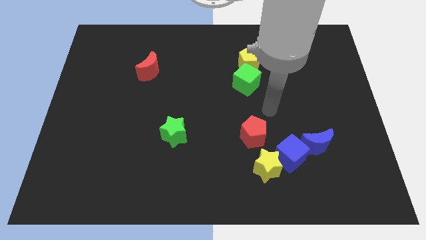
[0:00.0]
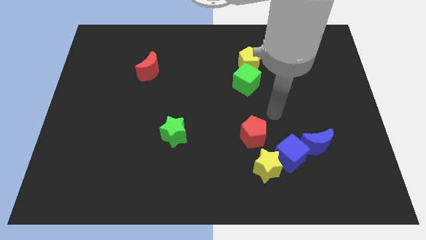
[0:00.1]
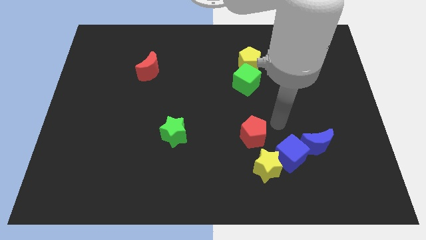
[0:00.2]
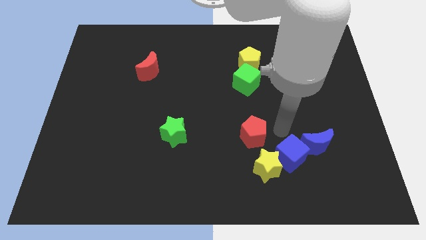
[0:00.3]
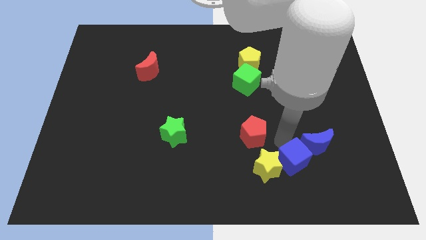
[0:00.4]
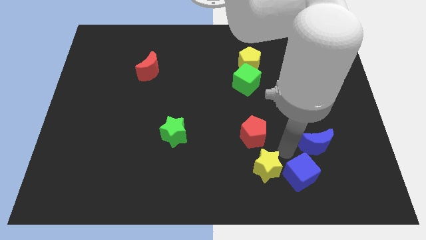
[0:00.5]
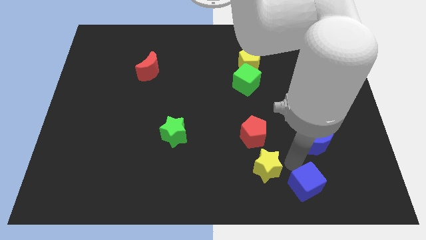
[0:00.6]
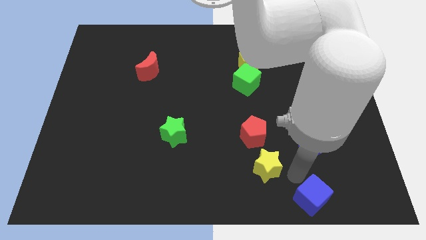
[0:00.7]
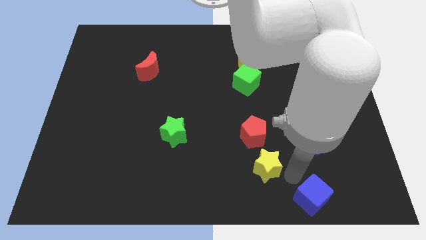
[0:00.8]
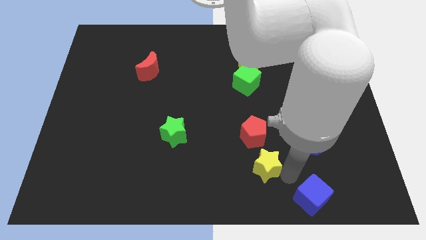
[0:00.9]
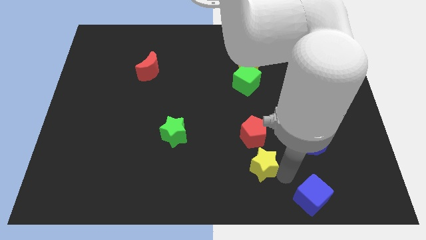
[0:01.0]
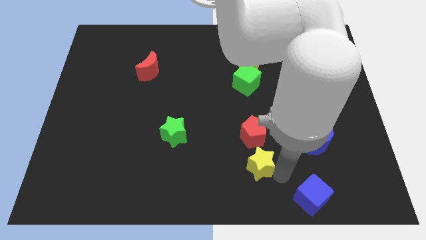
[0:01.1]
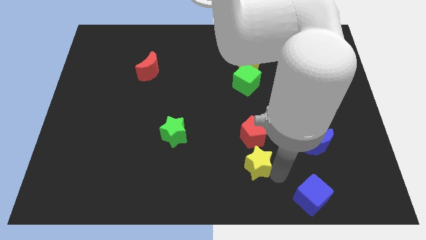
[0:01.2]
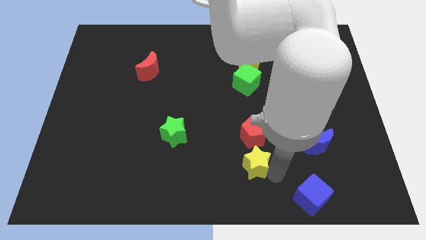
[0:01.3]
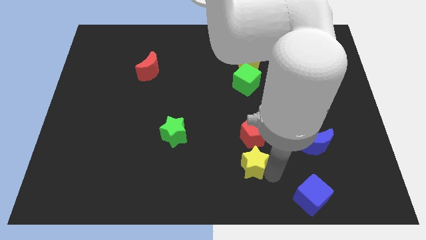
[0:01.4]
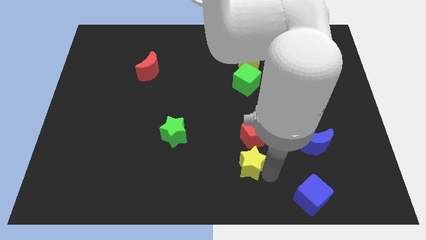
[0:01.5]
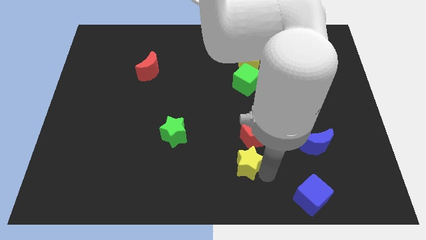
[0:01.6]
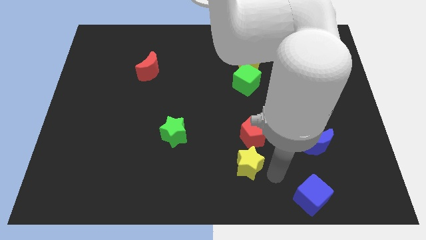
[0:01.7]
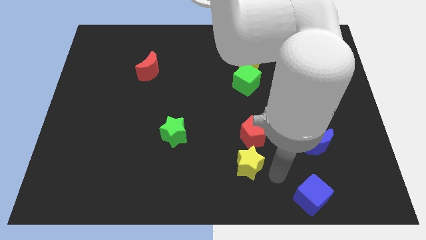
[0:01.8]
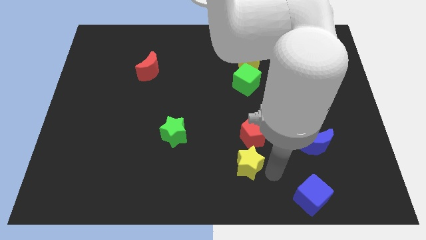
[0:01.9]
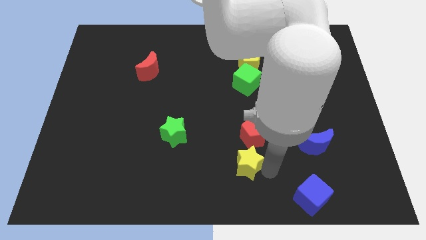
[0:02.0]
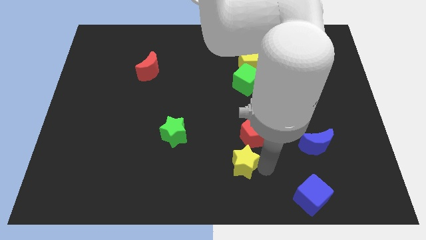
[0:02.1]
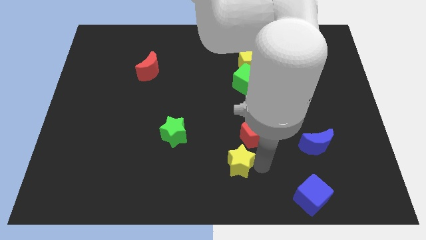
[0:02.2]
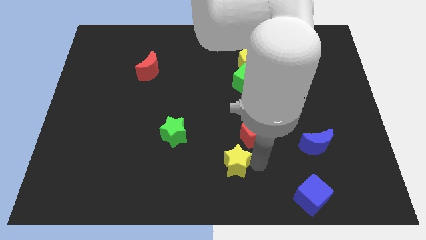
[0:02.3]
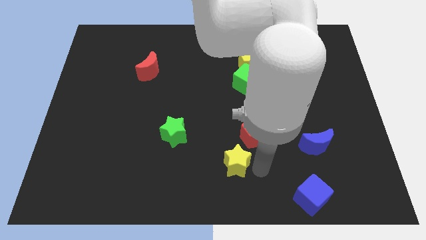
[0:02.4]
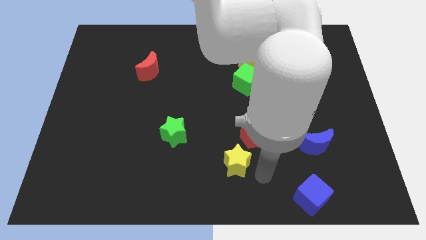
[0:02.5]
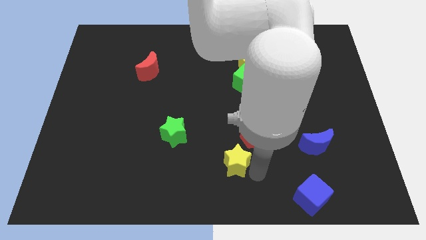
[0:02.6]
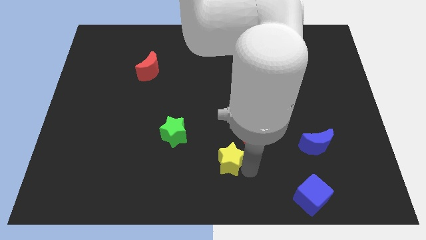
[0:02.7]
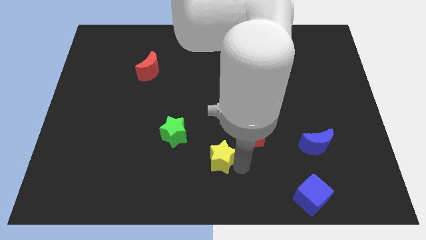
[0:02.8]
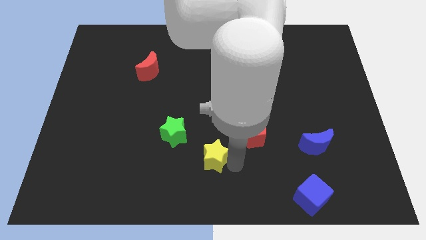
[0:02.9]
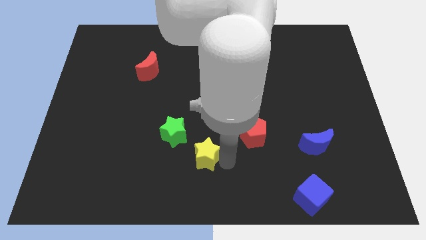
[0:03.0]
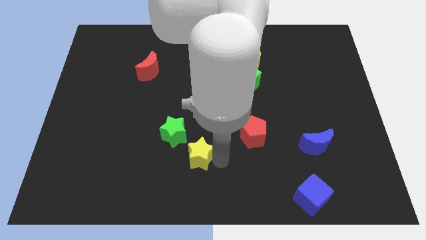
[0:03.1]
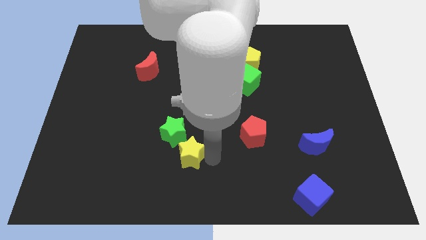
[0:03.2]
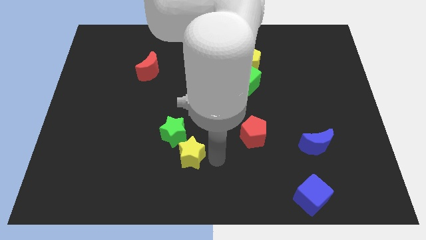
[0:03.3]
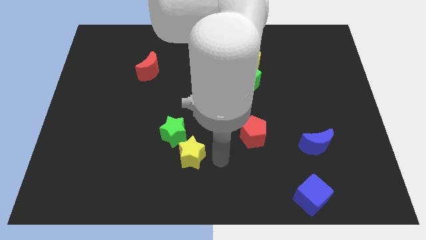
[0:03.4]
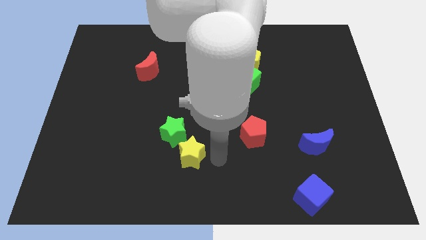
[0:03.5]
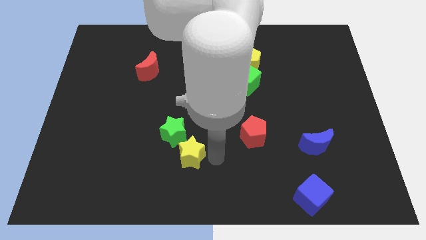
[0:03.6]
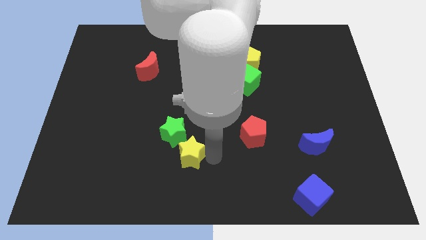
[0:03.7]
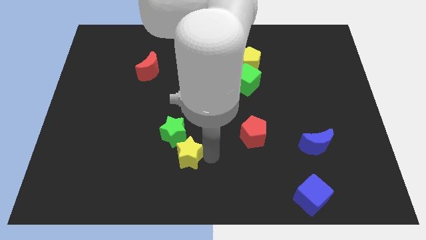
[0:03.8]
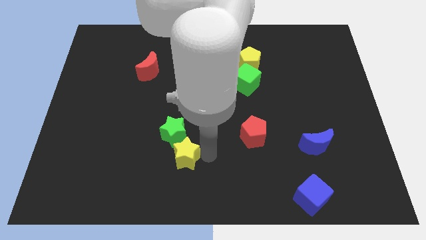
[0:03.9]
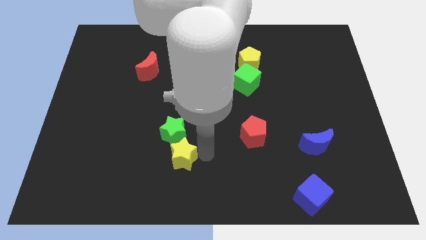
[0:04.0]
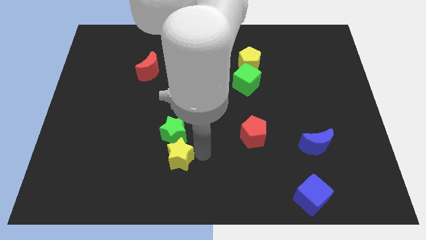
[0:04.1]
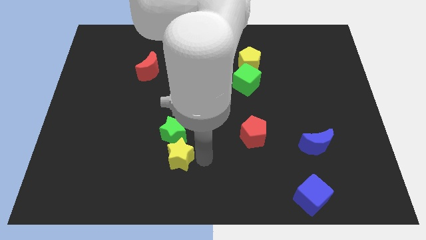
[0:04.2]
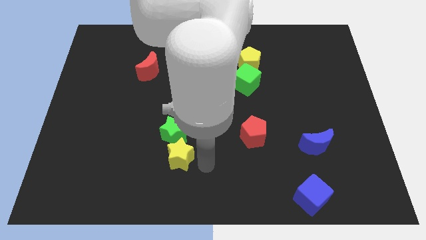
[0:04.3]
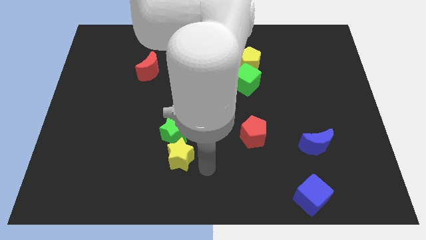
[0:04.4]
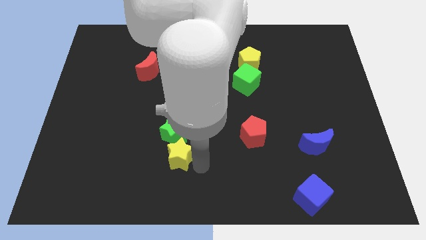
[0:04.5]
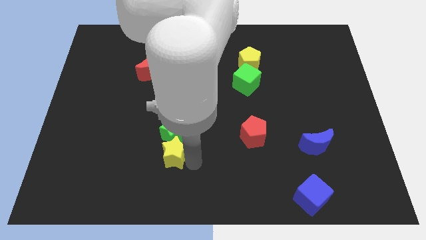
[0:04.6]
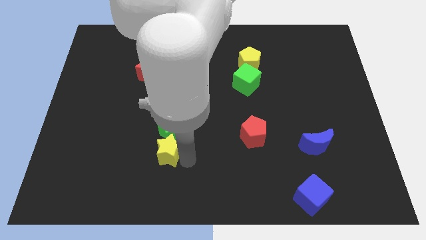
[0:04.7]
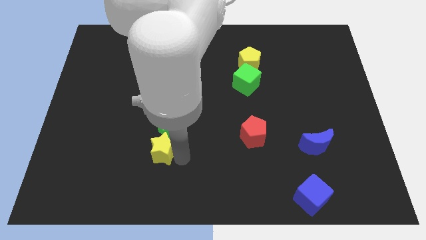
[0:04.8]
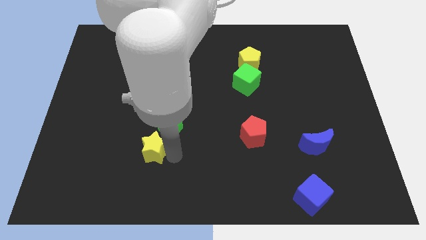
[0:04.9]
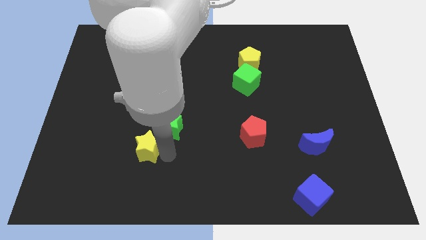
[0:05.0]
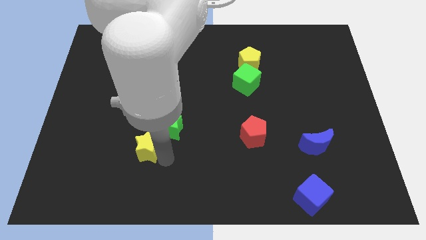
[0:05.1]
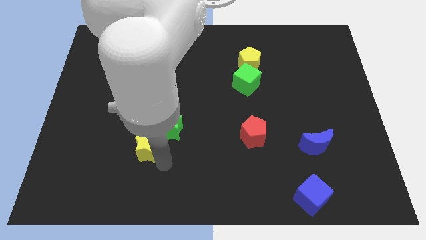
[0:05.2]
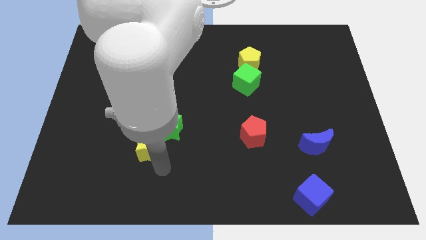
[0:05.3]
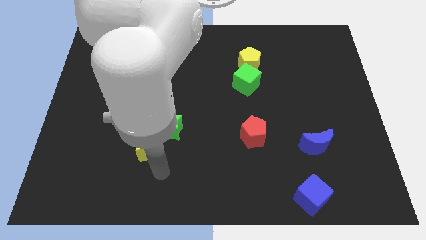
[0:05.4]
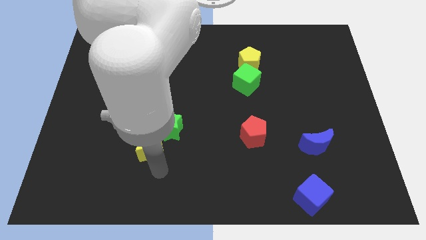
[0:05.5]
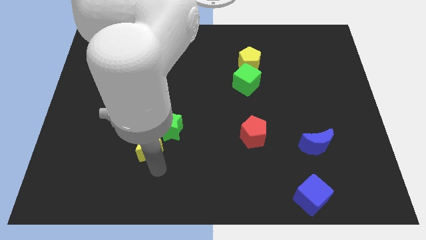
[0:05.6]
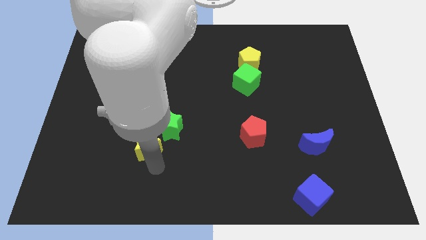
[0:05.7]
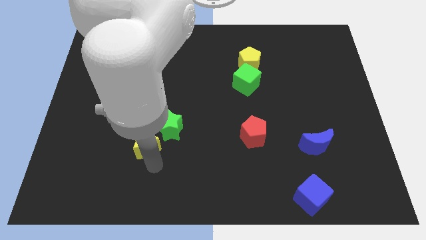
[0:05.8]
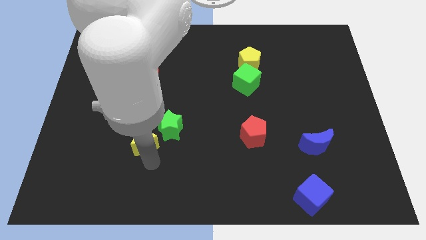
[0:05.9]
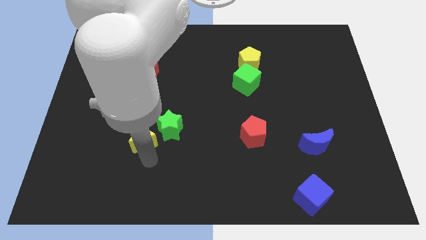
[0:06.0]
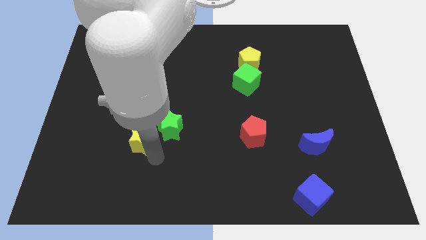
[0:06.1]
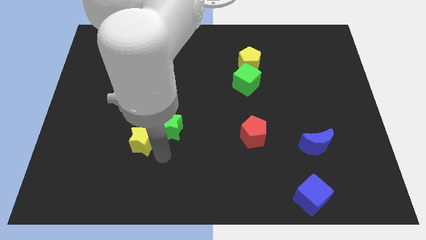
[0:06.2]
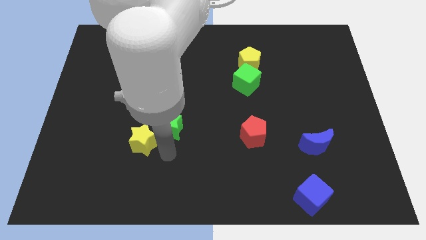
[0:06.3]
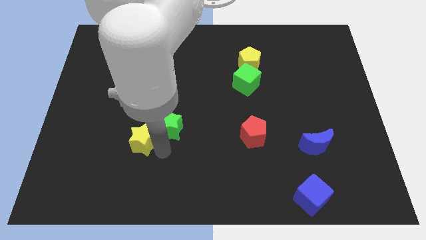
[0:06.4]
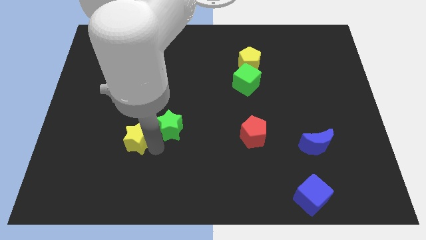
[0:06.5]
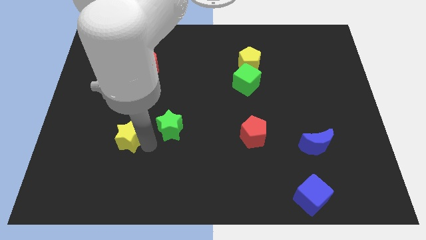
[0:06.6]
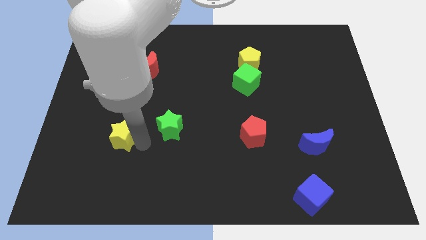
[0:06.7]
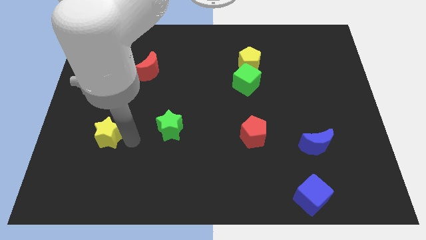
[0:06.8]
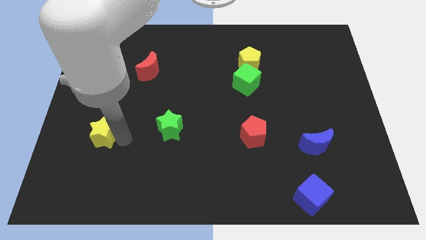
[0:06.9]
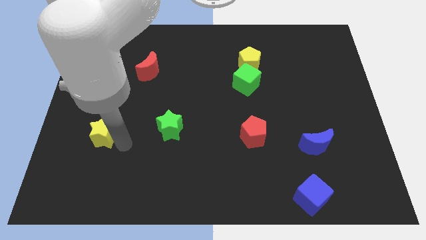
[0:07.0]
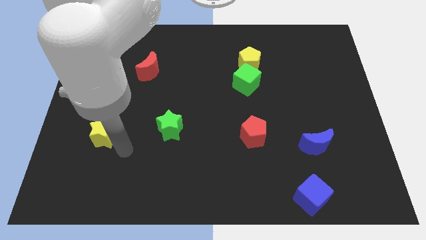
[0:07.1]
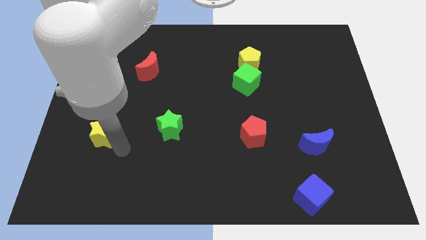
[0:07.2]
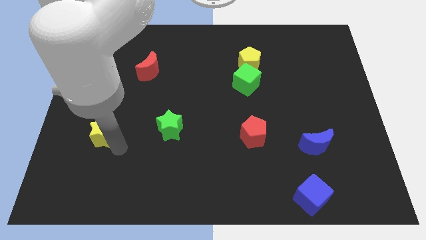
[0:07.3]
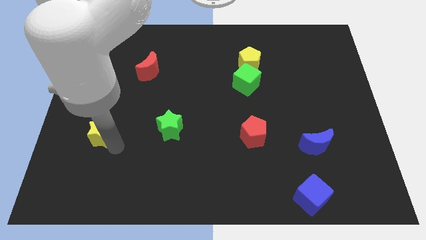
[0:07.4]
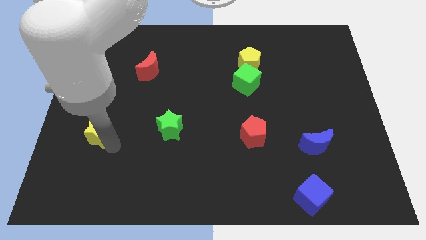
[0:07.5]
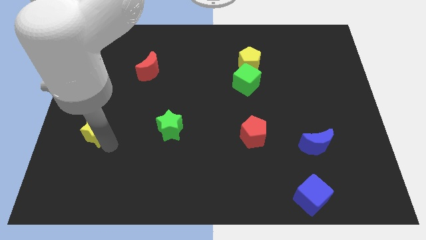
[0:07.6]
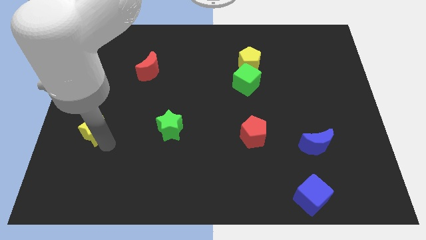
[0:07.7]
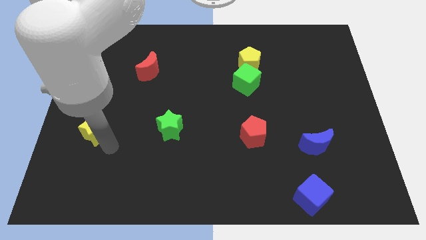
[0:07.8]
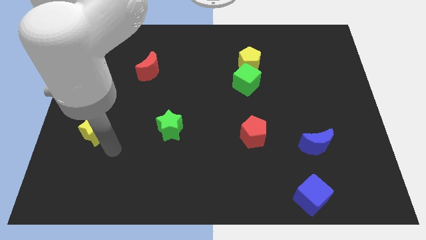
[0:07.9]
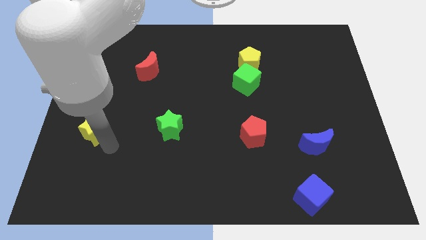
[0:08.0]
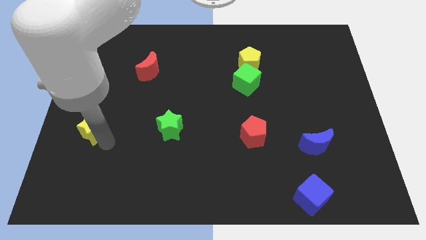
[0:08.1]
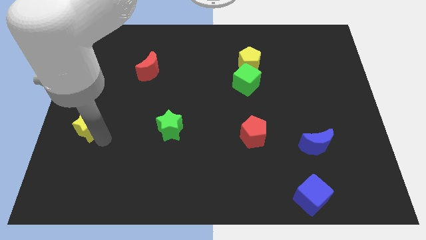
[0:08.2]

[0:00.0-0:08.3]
push the yellow star to the center left
